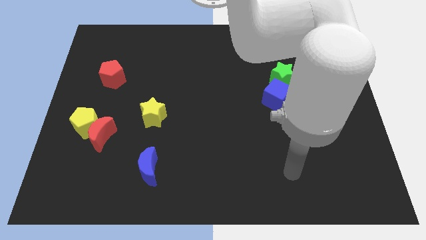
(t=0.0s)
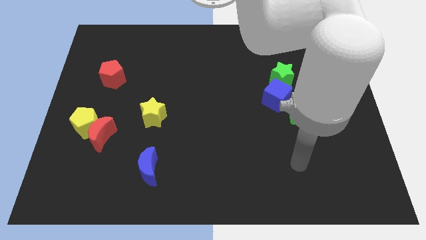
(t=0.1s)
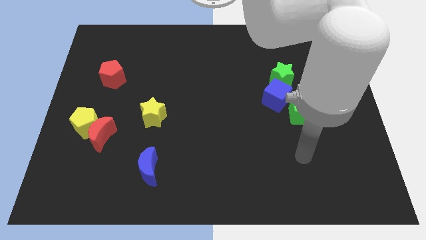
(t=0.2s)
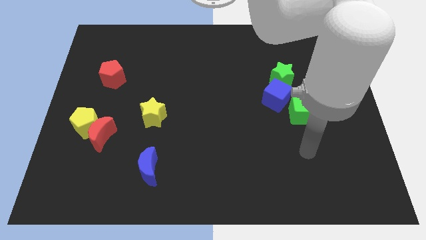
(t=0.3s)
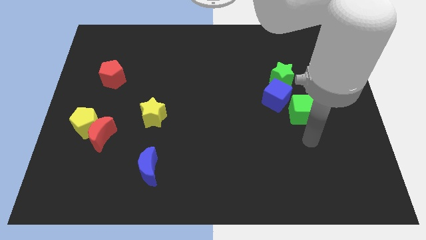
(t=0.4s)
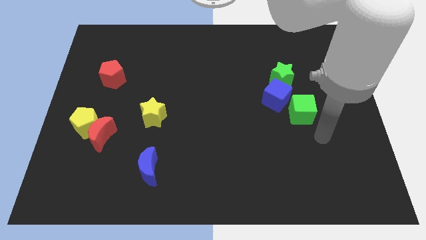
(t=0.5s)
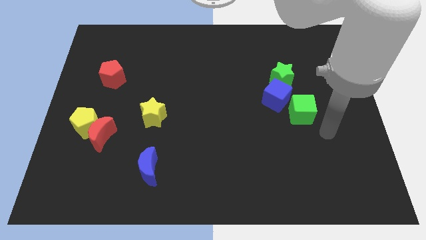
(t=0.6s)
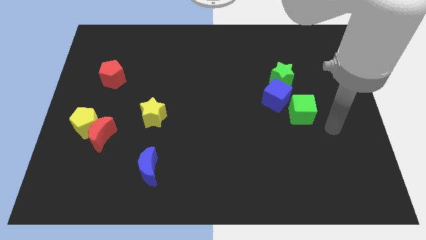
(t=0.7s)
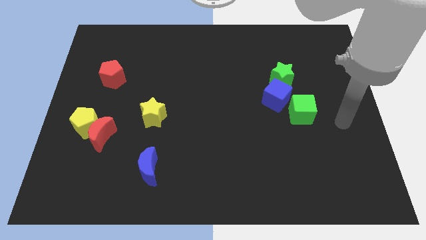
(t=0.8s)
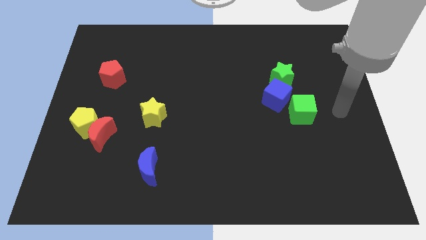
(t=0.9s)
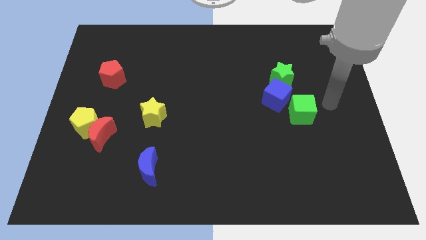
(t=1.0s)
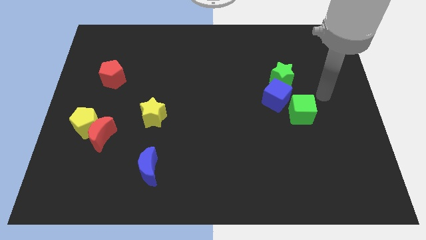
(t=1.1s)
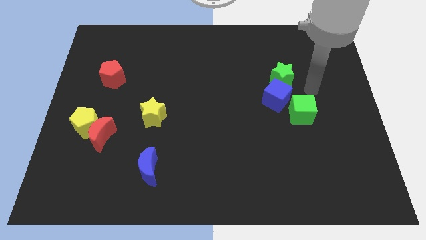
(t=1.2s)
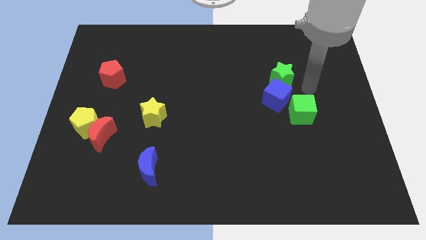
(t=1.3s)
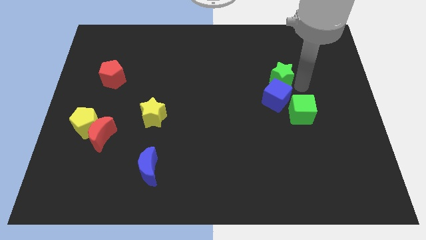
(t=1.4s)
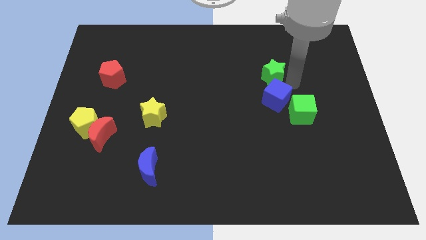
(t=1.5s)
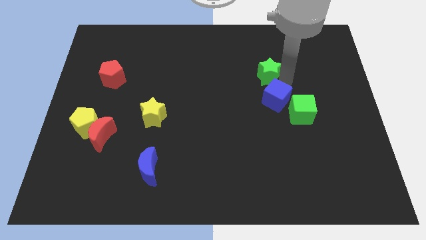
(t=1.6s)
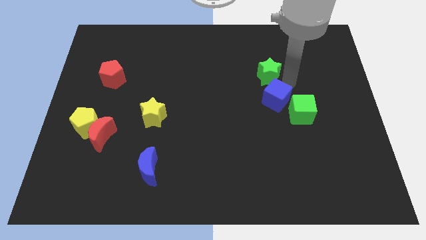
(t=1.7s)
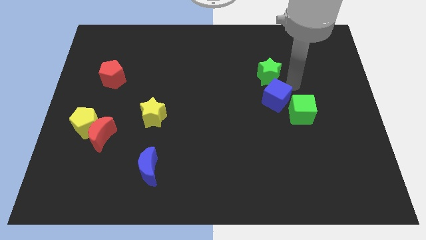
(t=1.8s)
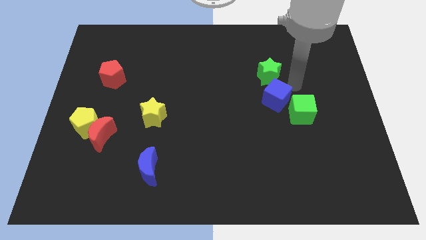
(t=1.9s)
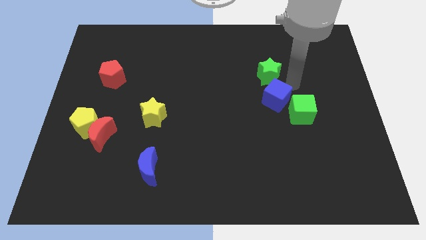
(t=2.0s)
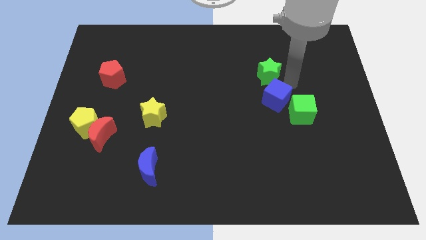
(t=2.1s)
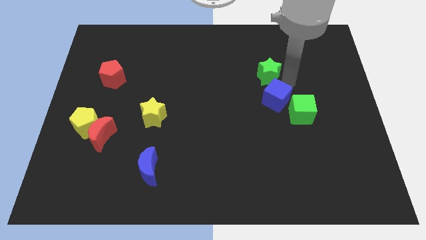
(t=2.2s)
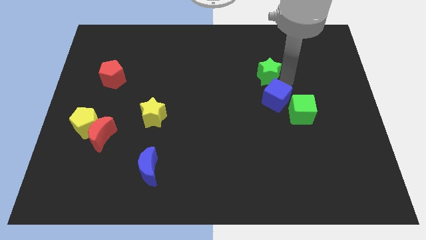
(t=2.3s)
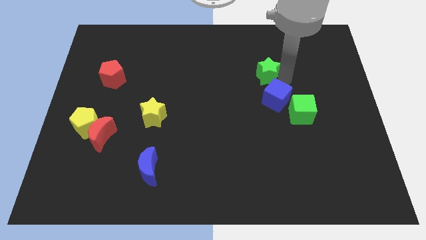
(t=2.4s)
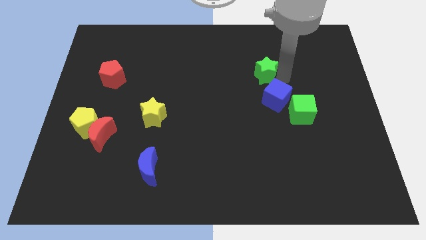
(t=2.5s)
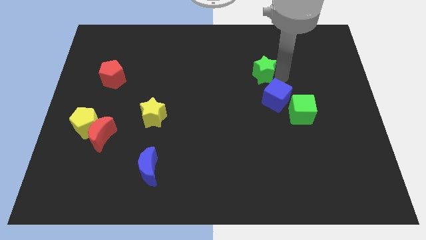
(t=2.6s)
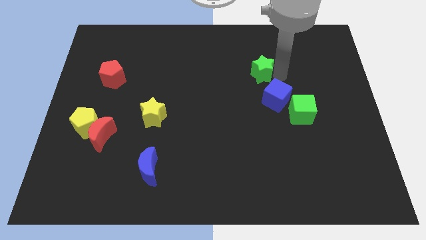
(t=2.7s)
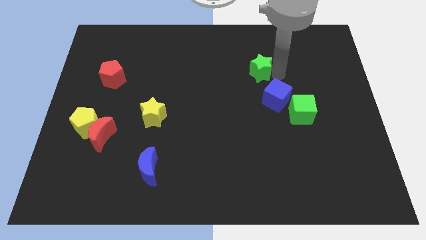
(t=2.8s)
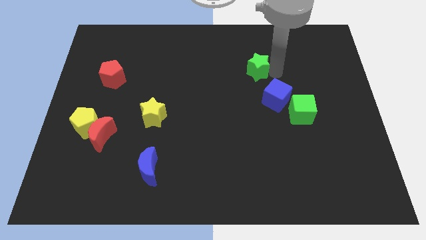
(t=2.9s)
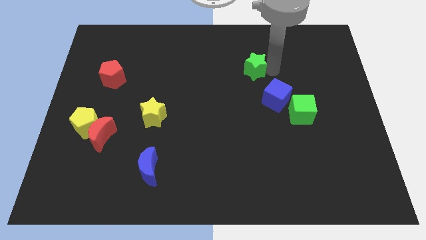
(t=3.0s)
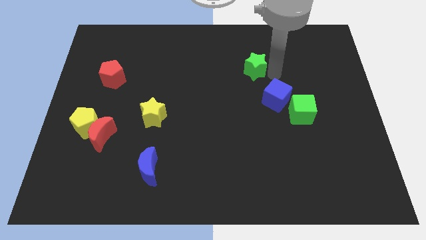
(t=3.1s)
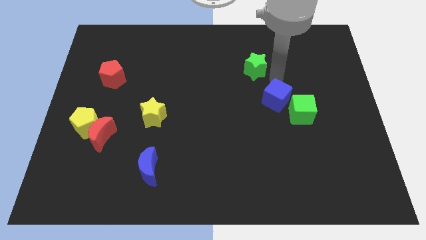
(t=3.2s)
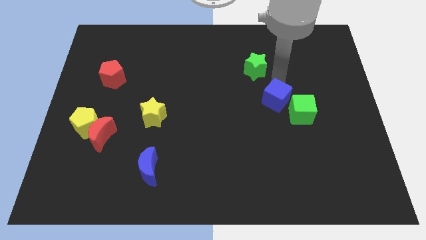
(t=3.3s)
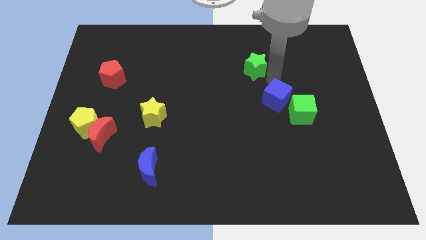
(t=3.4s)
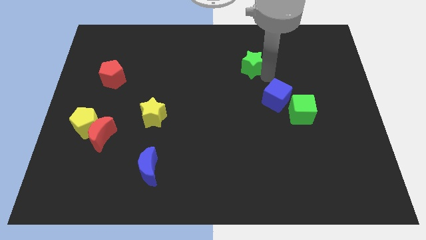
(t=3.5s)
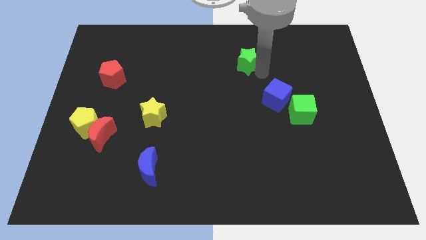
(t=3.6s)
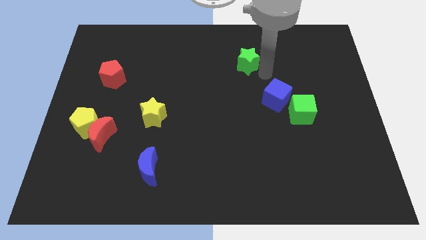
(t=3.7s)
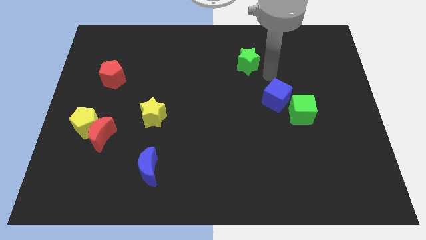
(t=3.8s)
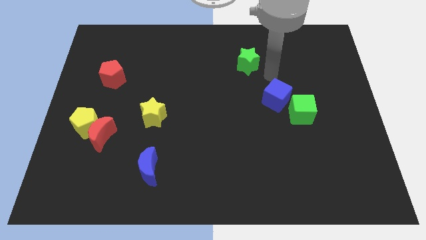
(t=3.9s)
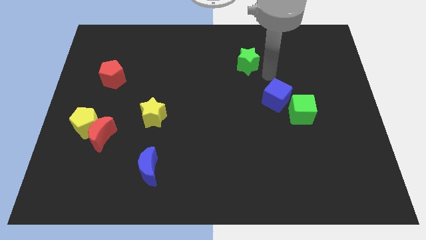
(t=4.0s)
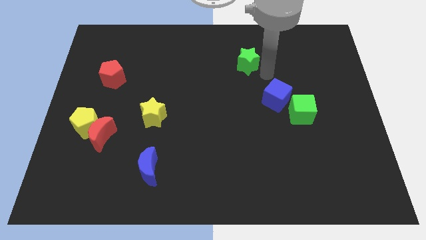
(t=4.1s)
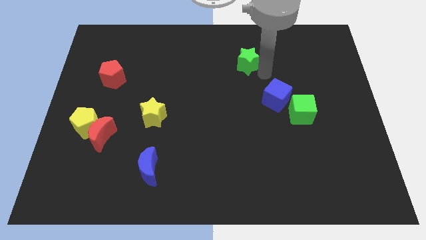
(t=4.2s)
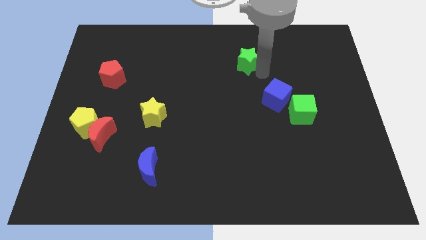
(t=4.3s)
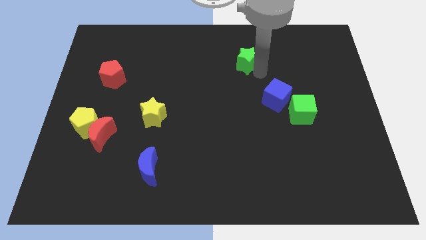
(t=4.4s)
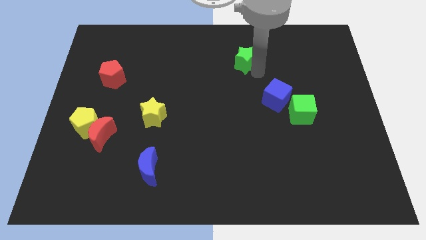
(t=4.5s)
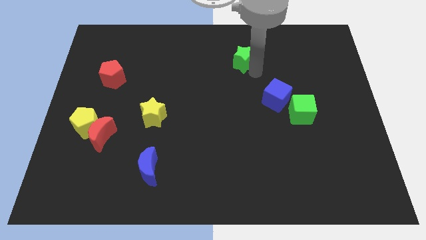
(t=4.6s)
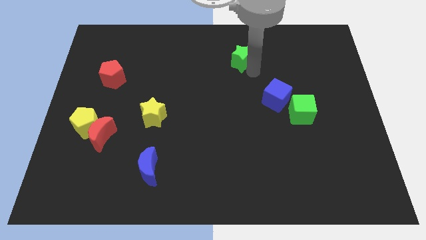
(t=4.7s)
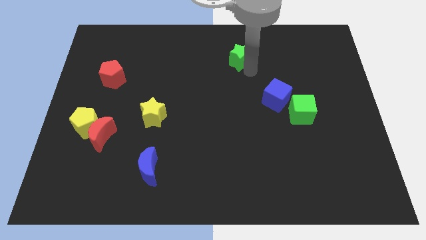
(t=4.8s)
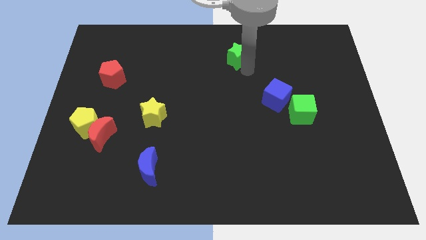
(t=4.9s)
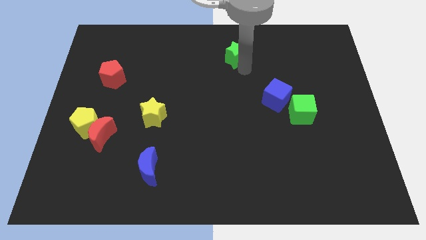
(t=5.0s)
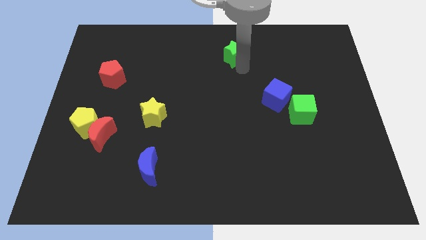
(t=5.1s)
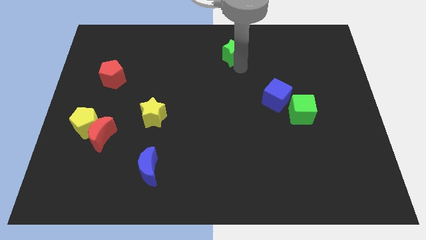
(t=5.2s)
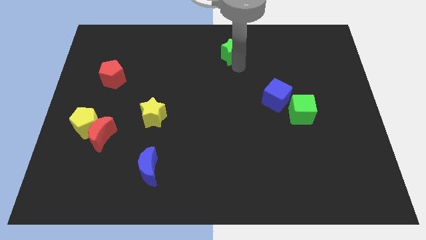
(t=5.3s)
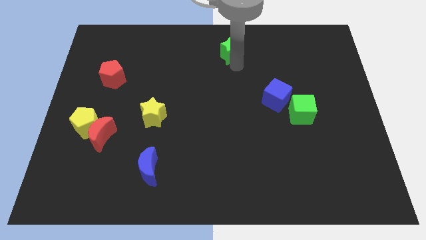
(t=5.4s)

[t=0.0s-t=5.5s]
put the green star to the top side
